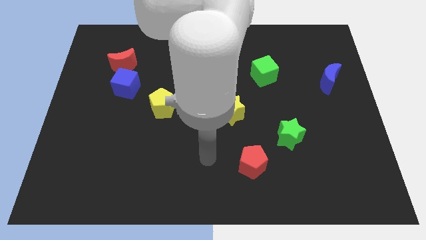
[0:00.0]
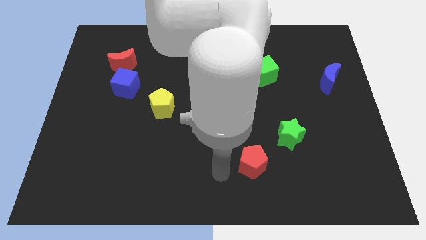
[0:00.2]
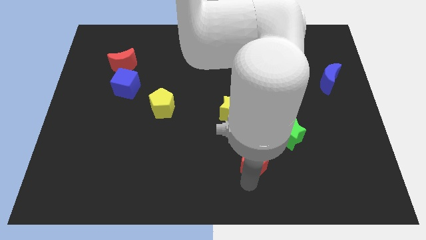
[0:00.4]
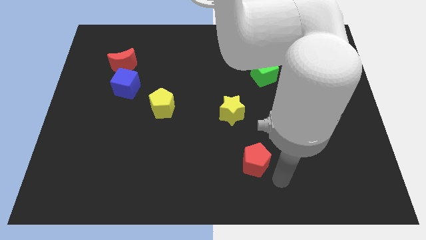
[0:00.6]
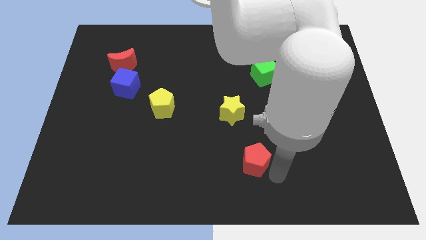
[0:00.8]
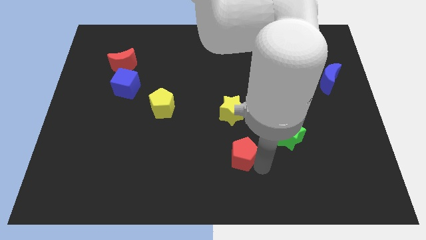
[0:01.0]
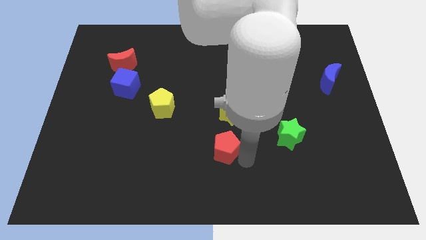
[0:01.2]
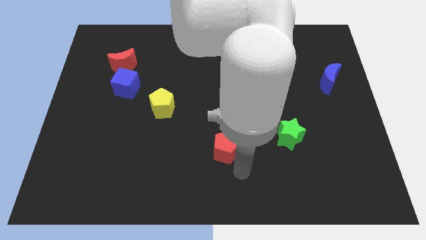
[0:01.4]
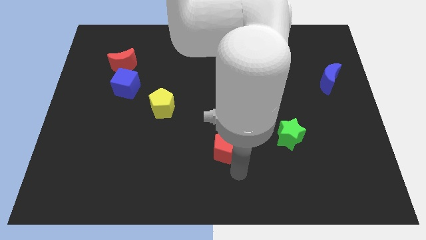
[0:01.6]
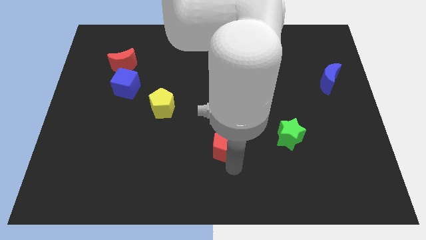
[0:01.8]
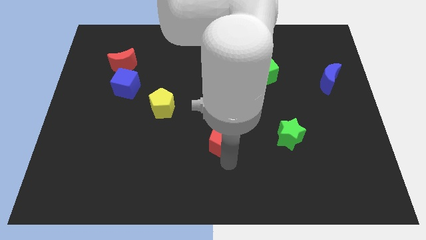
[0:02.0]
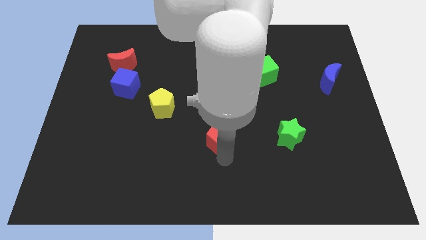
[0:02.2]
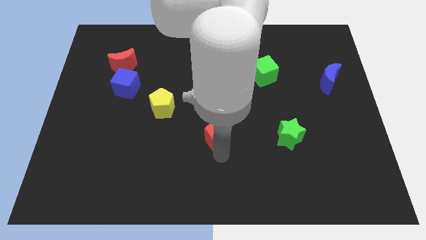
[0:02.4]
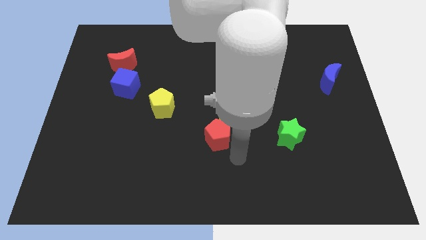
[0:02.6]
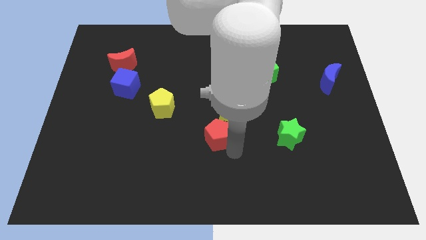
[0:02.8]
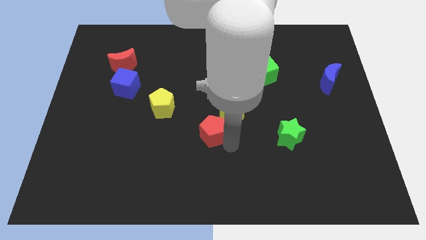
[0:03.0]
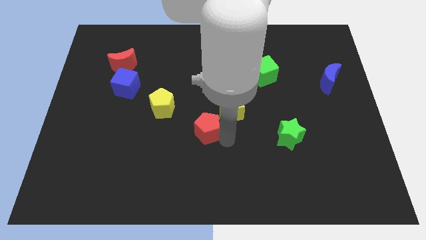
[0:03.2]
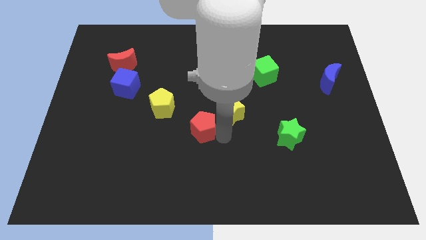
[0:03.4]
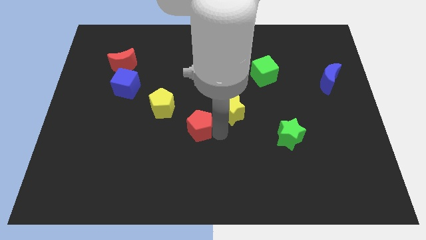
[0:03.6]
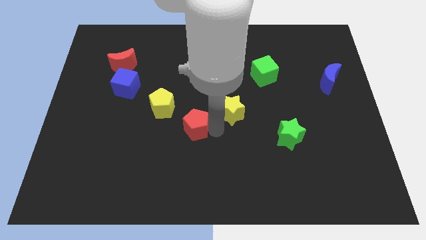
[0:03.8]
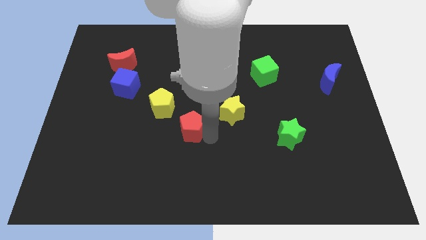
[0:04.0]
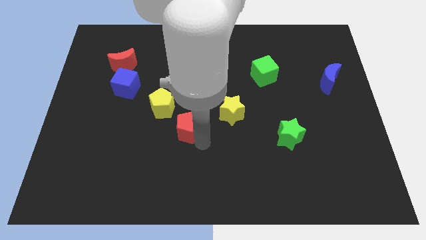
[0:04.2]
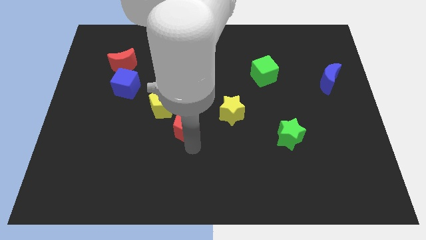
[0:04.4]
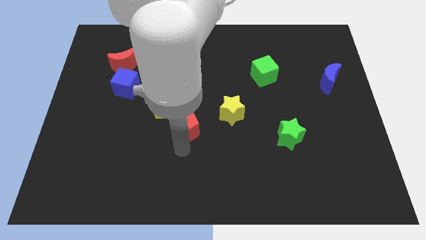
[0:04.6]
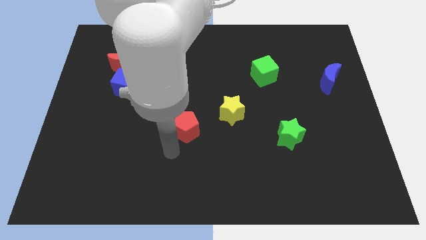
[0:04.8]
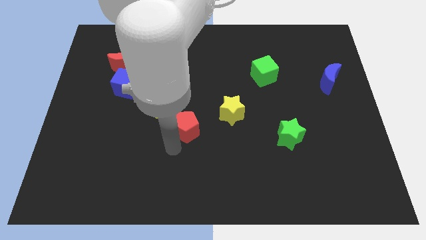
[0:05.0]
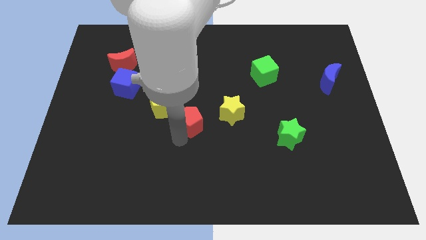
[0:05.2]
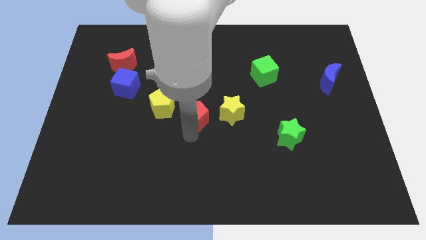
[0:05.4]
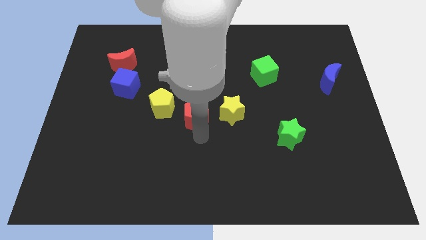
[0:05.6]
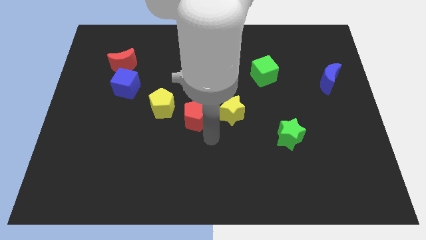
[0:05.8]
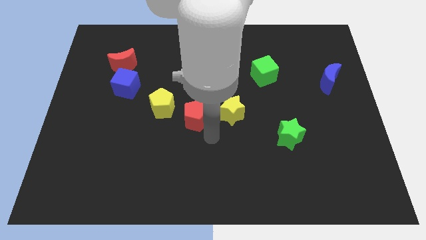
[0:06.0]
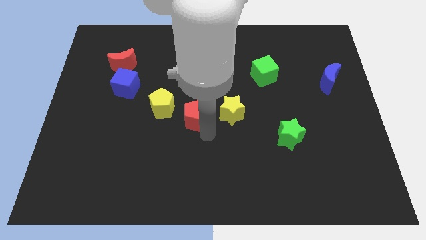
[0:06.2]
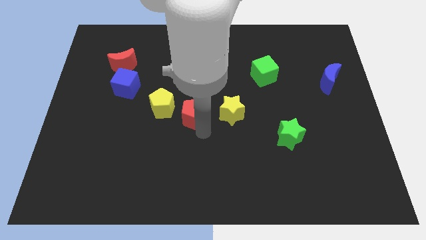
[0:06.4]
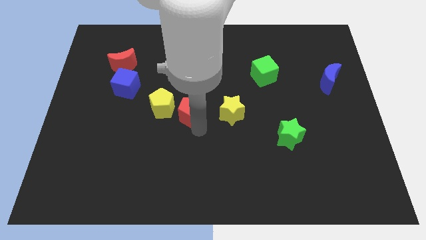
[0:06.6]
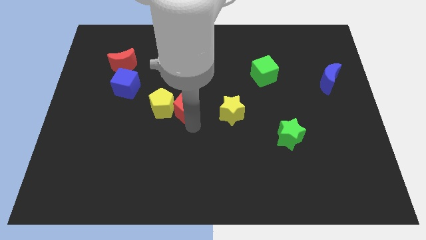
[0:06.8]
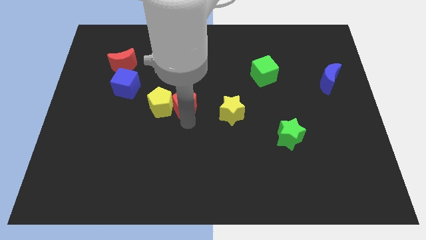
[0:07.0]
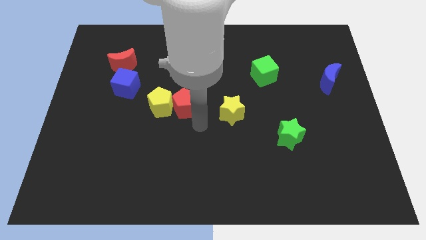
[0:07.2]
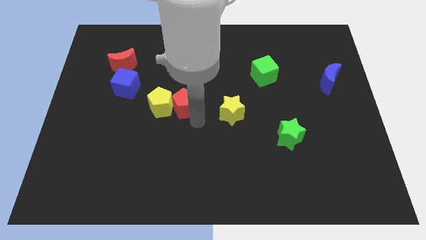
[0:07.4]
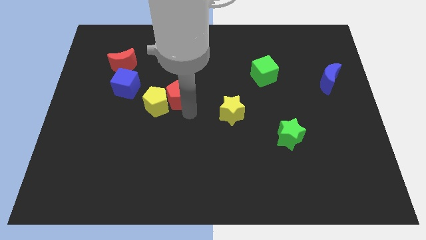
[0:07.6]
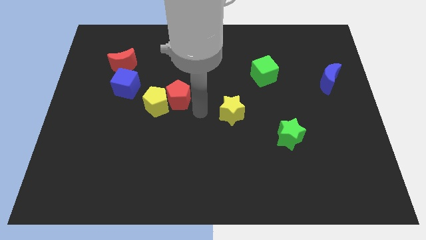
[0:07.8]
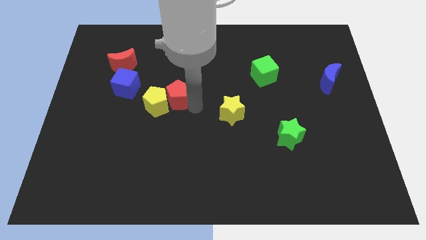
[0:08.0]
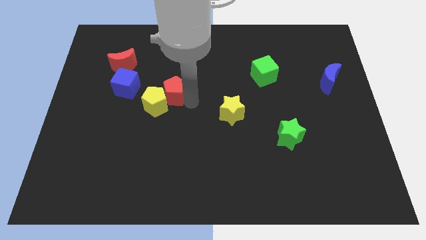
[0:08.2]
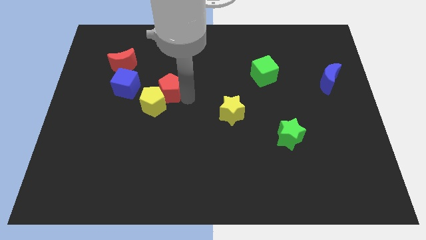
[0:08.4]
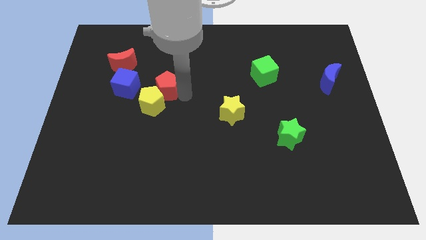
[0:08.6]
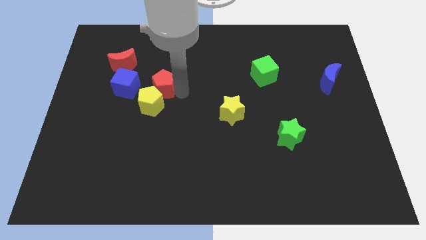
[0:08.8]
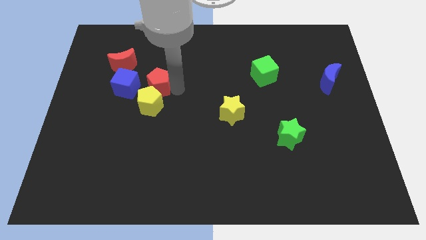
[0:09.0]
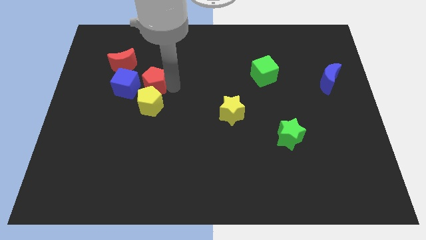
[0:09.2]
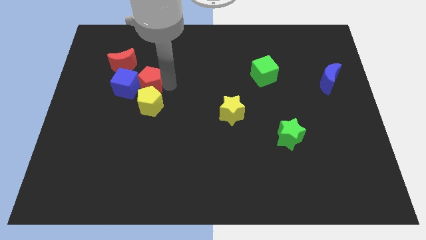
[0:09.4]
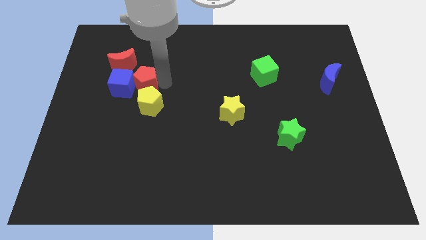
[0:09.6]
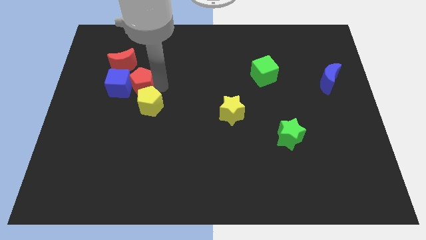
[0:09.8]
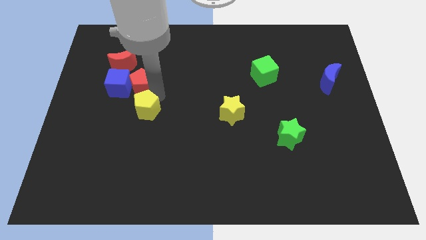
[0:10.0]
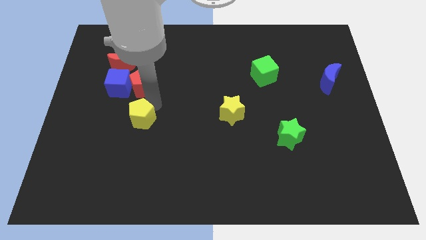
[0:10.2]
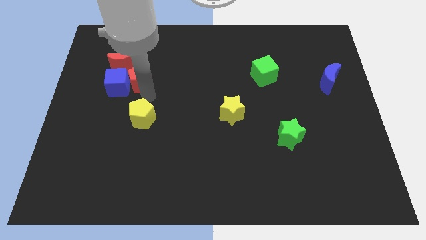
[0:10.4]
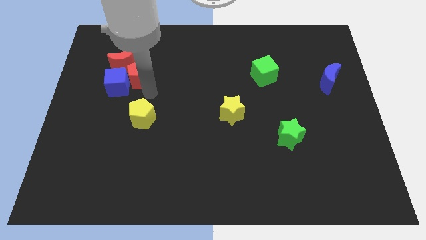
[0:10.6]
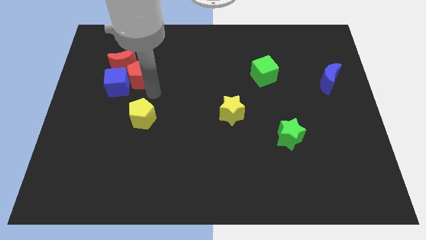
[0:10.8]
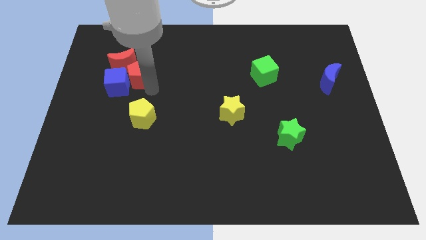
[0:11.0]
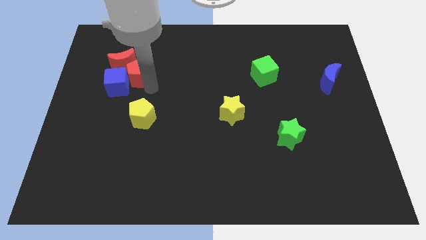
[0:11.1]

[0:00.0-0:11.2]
put the red pentagon towards the red moon

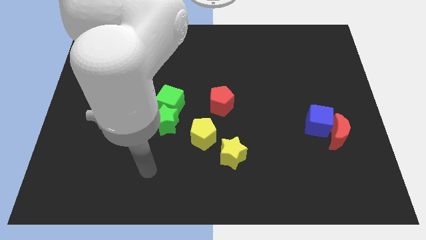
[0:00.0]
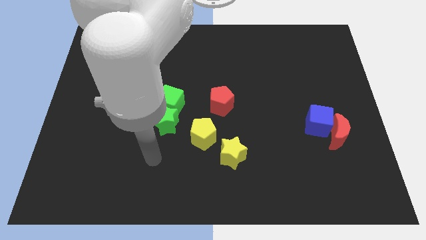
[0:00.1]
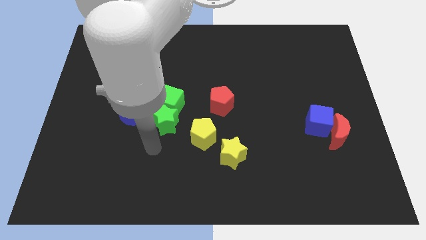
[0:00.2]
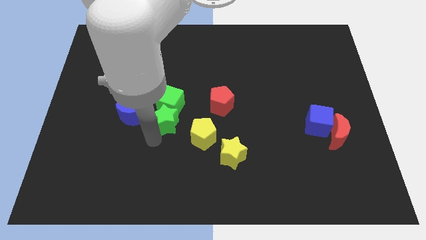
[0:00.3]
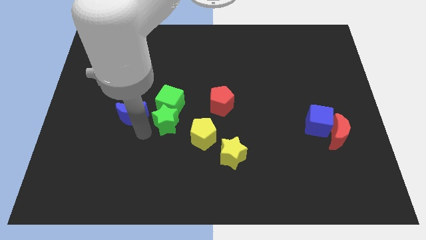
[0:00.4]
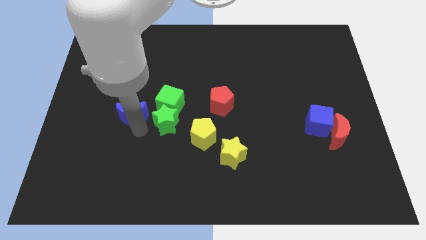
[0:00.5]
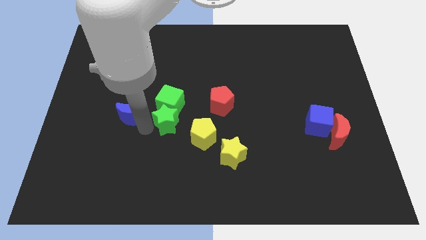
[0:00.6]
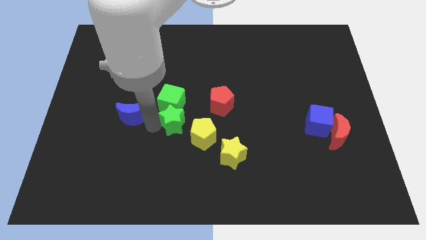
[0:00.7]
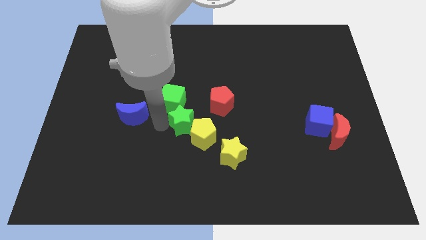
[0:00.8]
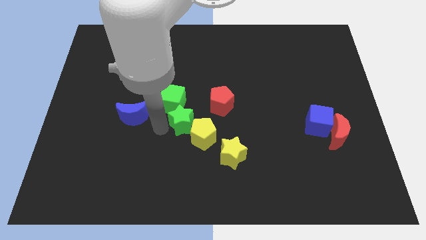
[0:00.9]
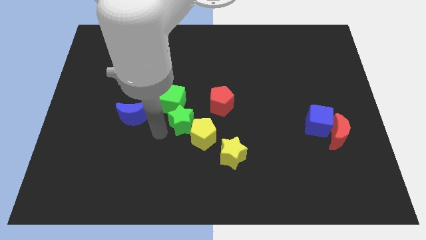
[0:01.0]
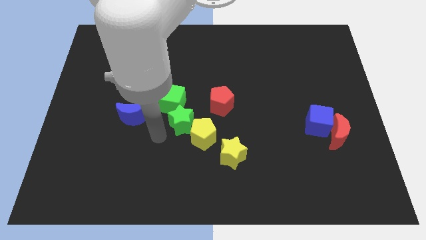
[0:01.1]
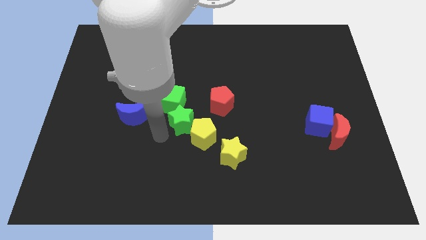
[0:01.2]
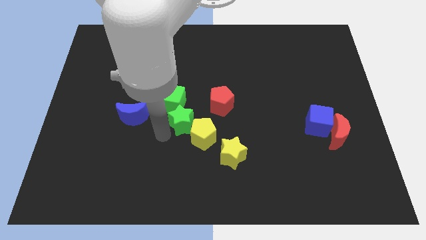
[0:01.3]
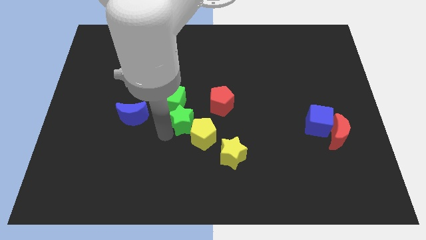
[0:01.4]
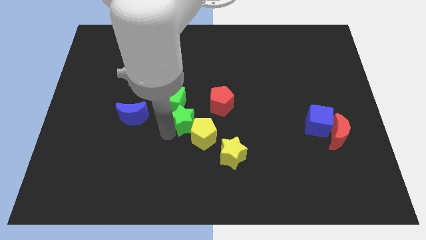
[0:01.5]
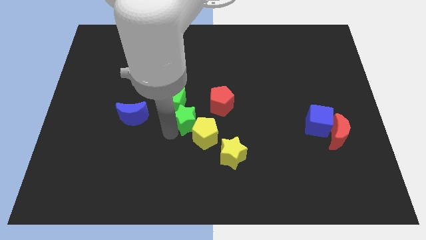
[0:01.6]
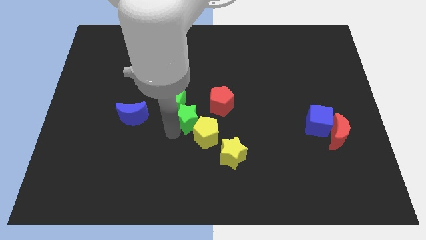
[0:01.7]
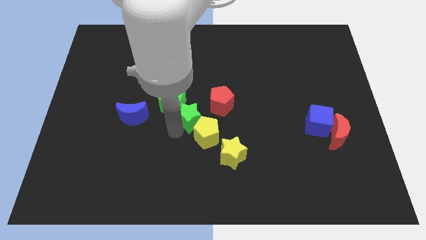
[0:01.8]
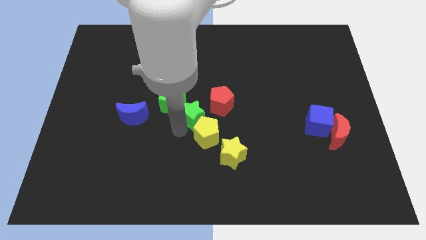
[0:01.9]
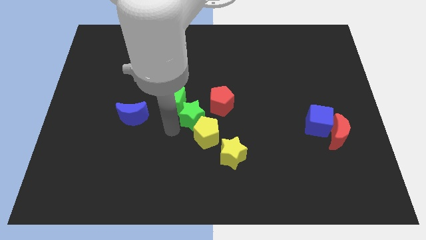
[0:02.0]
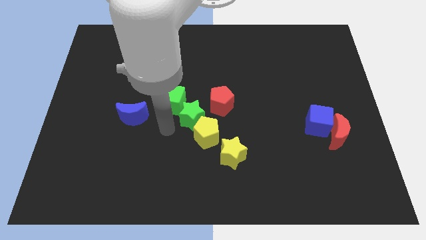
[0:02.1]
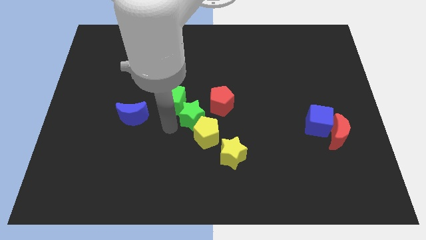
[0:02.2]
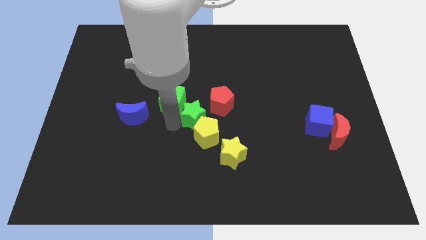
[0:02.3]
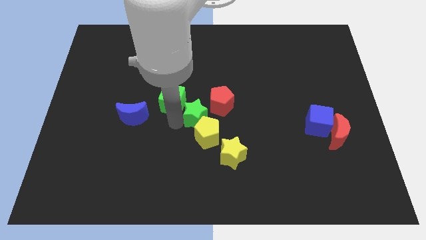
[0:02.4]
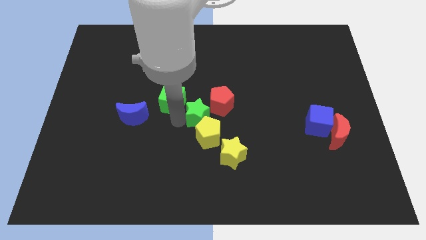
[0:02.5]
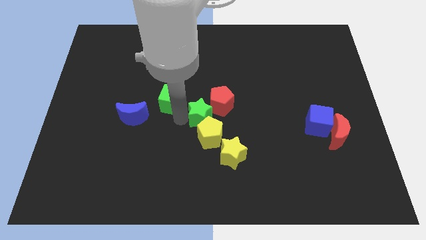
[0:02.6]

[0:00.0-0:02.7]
slide the green star next to the red pentagon
